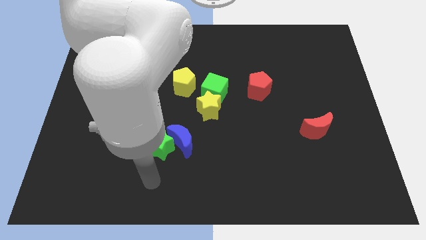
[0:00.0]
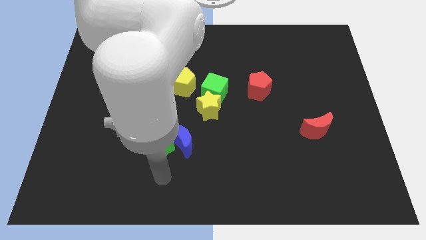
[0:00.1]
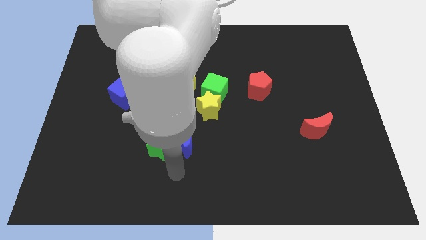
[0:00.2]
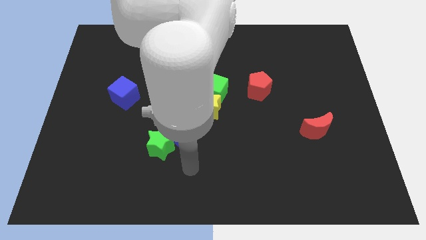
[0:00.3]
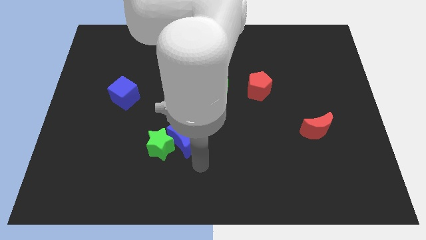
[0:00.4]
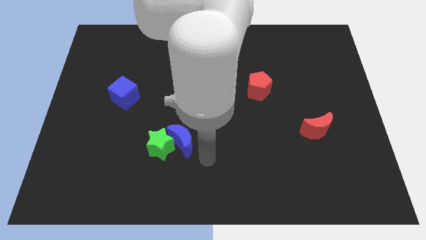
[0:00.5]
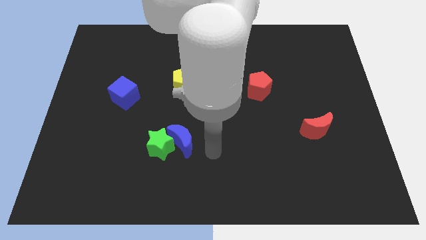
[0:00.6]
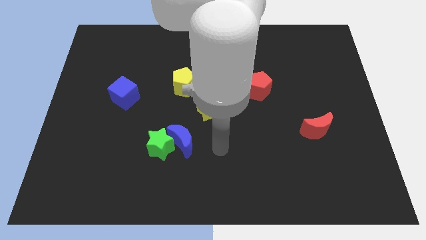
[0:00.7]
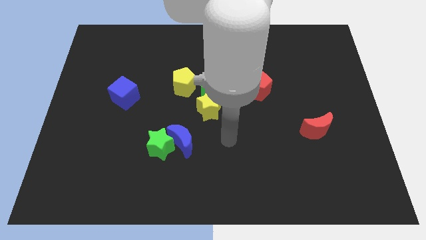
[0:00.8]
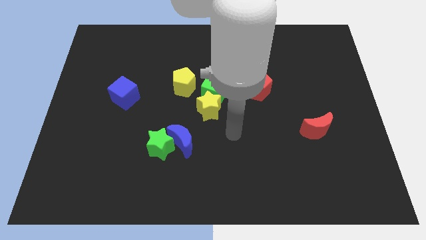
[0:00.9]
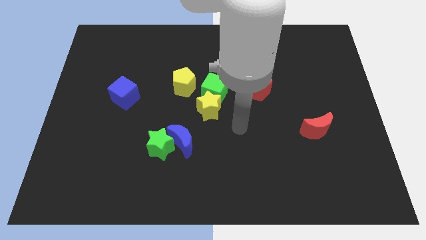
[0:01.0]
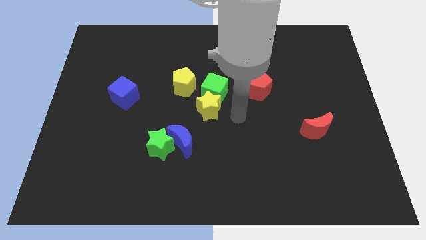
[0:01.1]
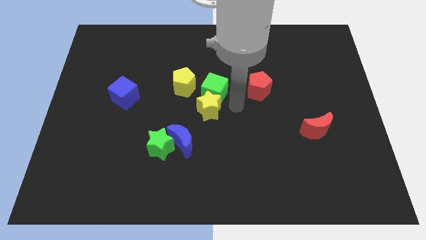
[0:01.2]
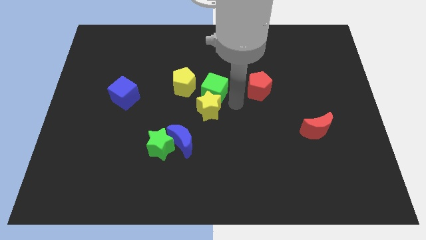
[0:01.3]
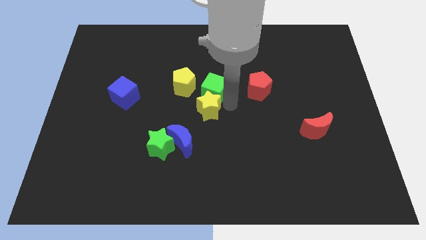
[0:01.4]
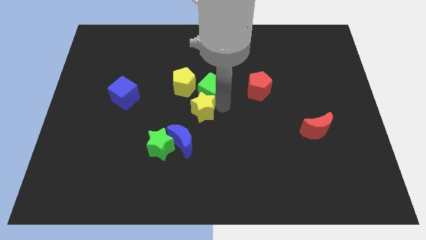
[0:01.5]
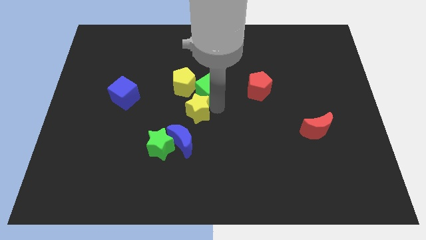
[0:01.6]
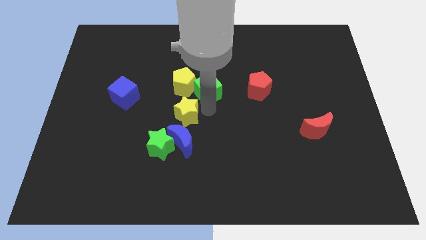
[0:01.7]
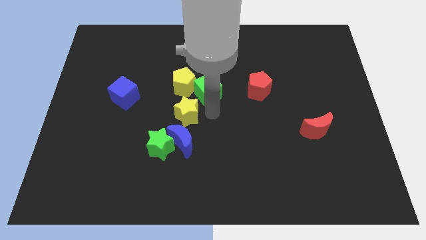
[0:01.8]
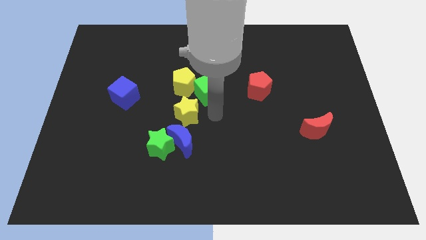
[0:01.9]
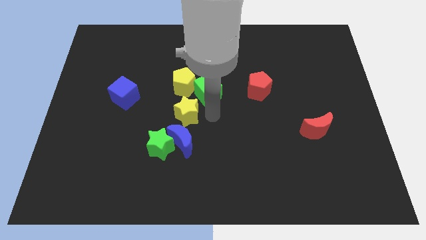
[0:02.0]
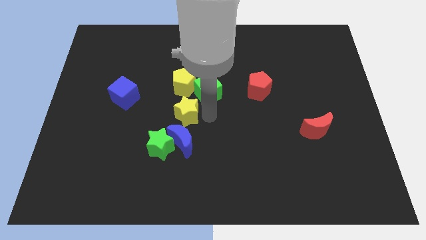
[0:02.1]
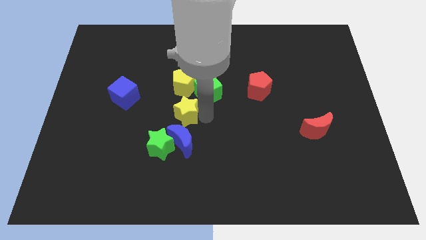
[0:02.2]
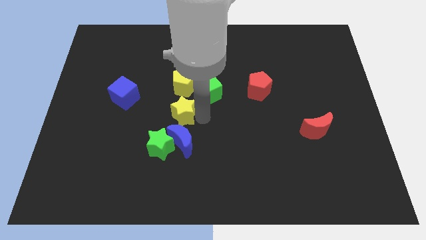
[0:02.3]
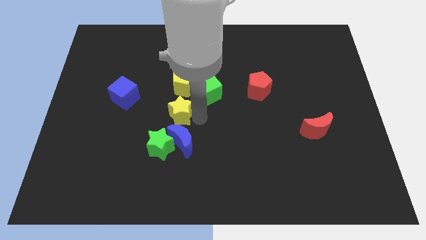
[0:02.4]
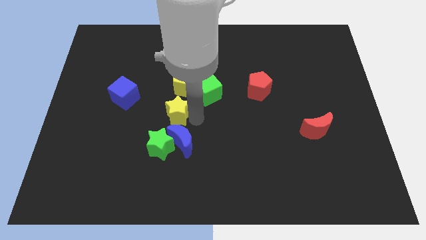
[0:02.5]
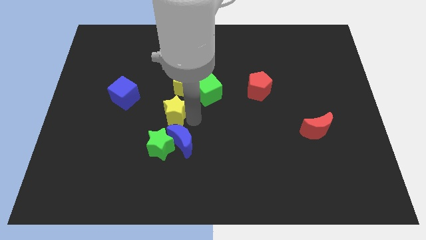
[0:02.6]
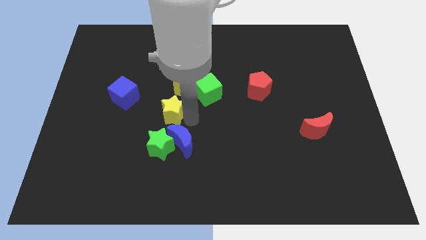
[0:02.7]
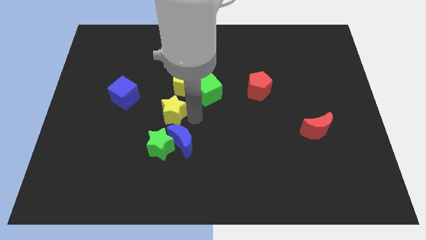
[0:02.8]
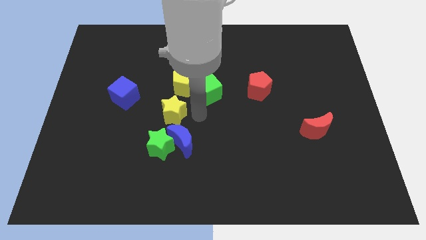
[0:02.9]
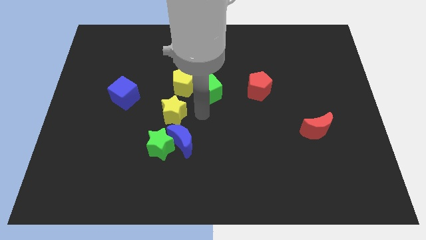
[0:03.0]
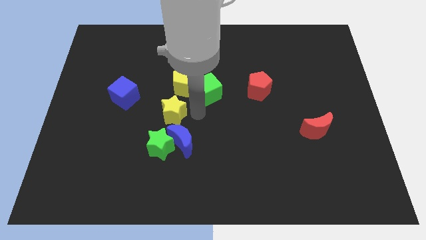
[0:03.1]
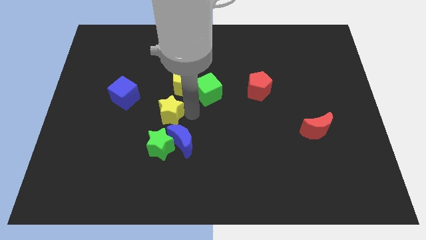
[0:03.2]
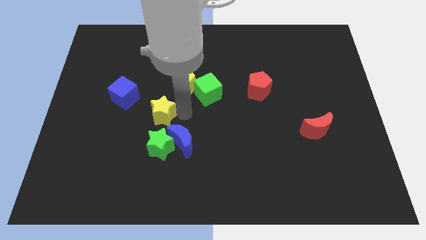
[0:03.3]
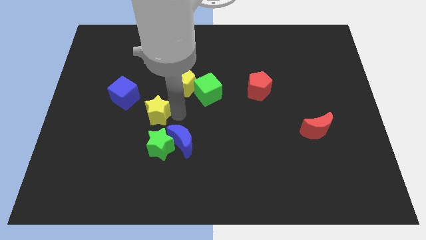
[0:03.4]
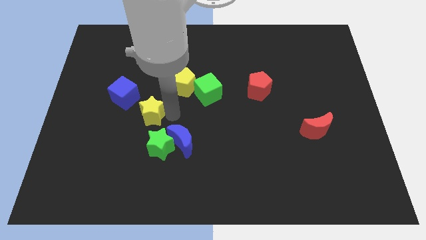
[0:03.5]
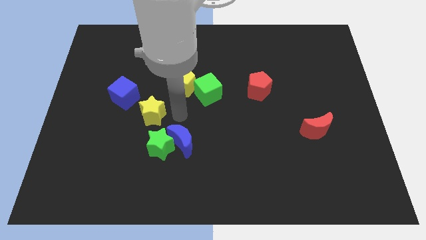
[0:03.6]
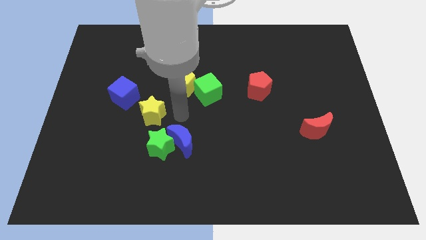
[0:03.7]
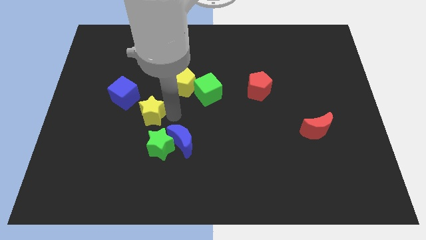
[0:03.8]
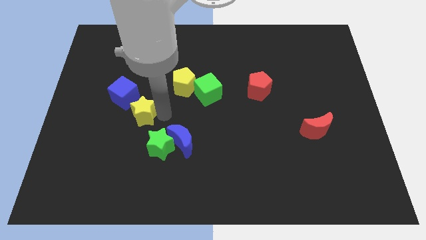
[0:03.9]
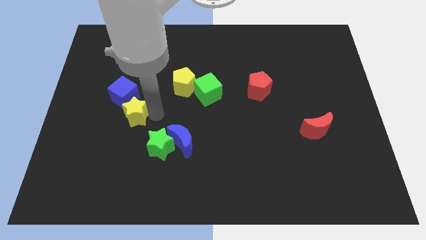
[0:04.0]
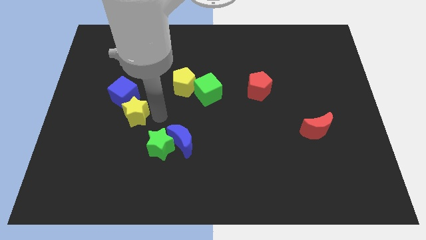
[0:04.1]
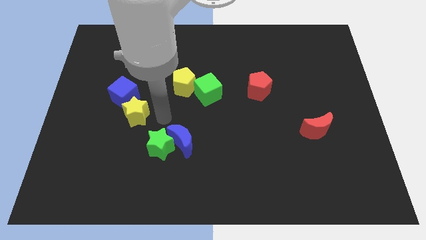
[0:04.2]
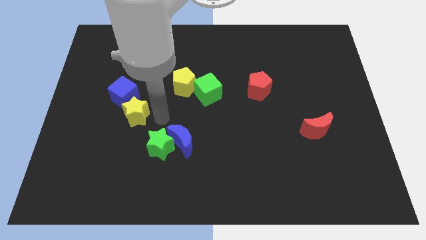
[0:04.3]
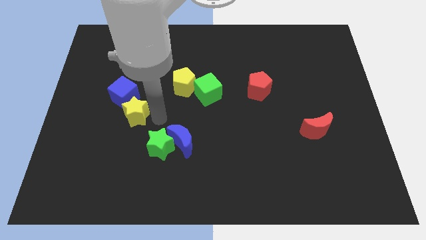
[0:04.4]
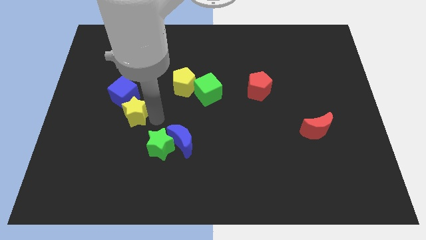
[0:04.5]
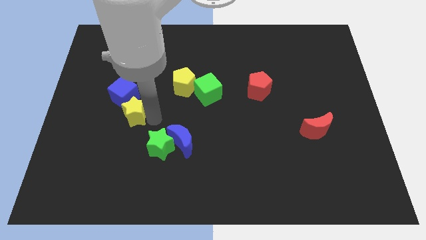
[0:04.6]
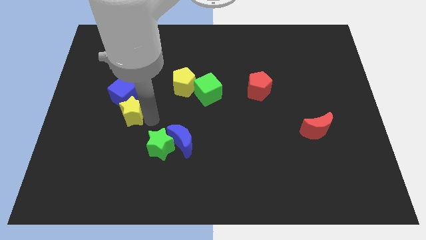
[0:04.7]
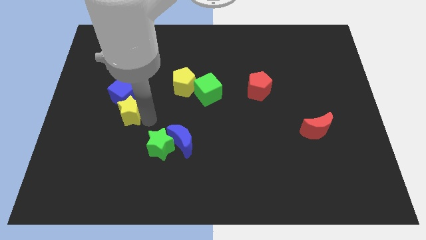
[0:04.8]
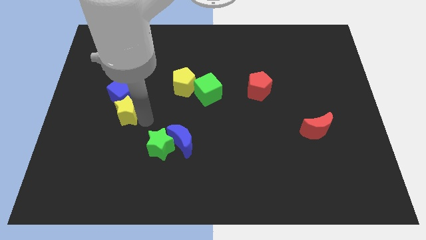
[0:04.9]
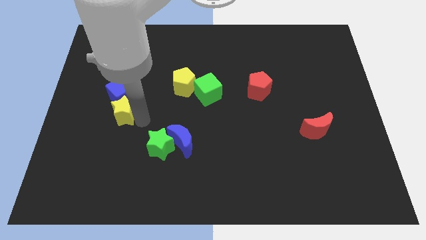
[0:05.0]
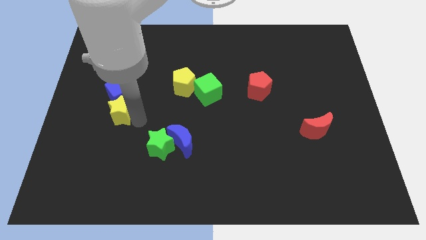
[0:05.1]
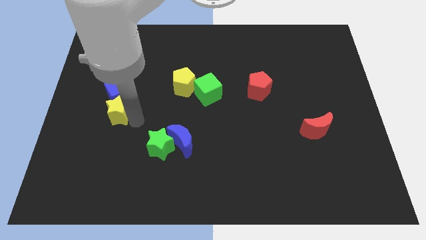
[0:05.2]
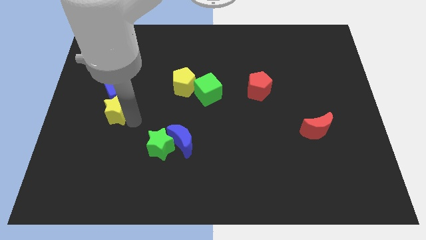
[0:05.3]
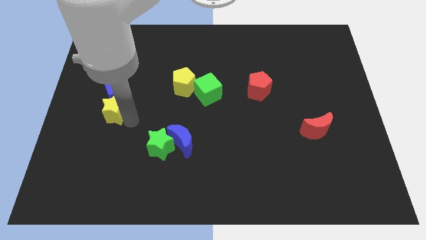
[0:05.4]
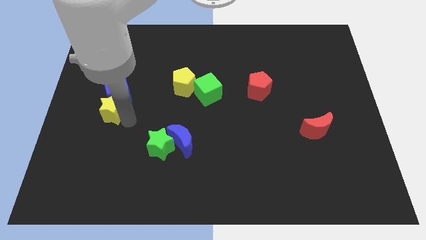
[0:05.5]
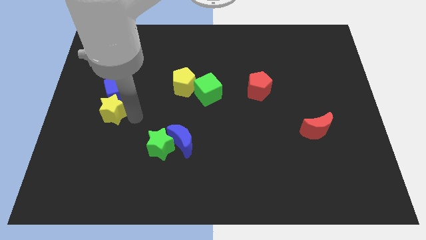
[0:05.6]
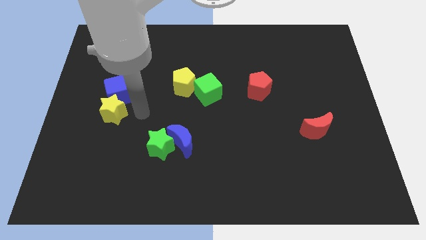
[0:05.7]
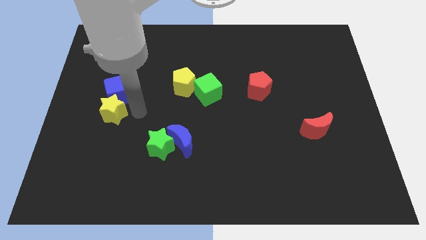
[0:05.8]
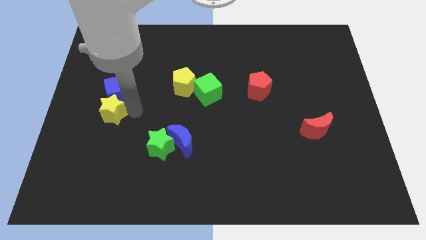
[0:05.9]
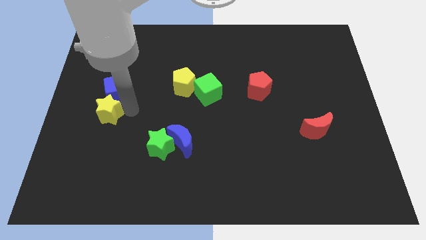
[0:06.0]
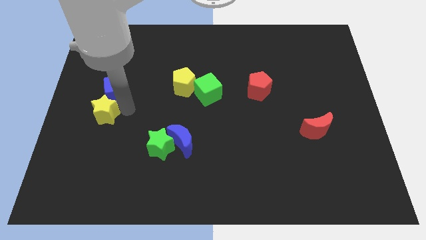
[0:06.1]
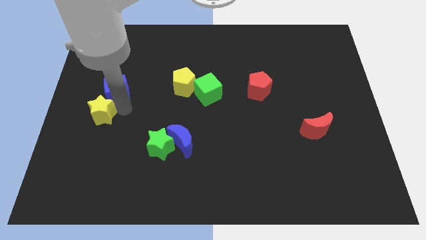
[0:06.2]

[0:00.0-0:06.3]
move the yellow star to the left side
